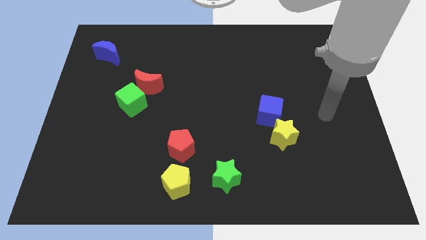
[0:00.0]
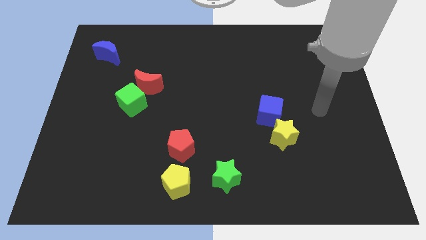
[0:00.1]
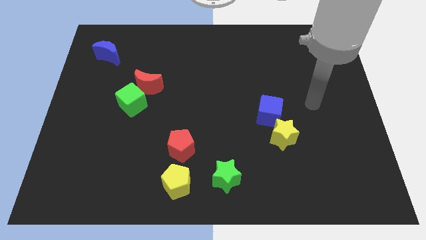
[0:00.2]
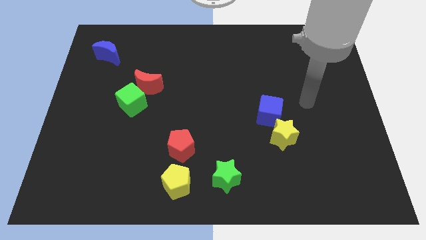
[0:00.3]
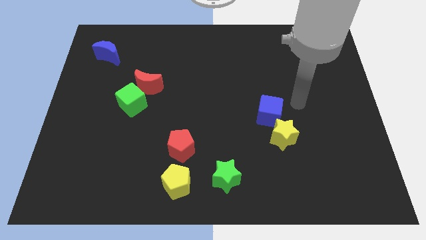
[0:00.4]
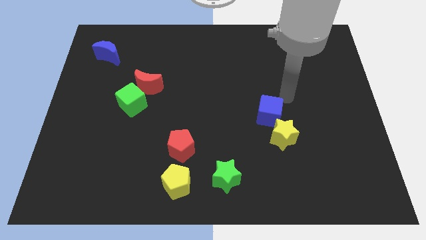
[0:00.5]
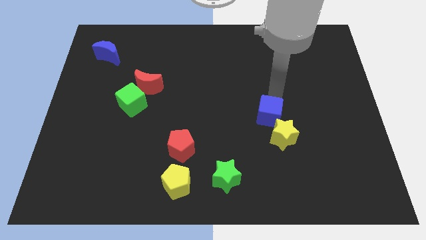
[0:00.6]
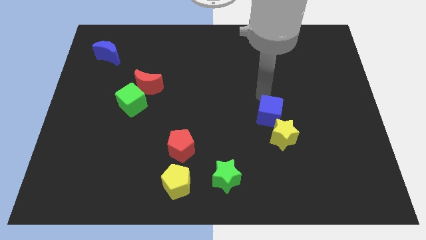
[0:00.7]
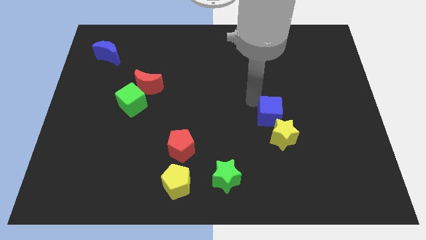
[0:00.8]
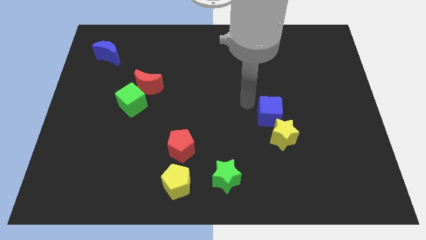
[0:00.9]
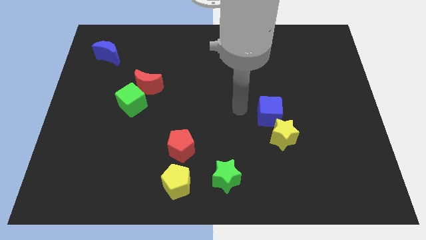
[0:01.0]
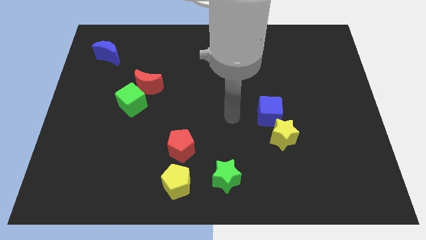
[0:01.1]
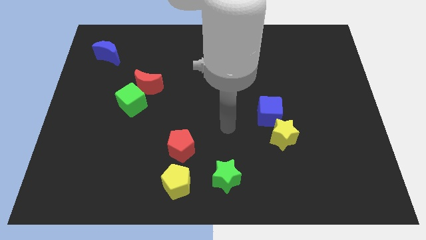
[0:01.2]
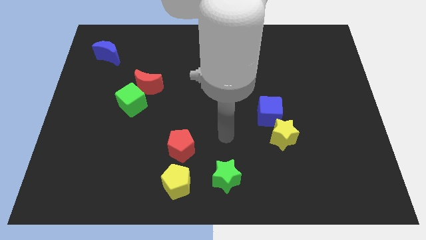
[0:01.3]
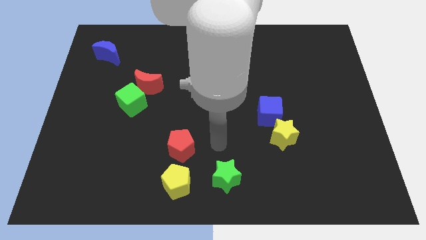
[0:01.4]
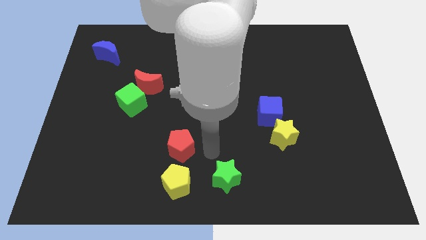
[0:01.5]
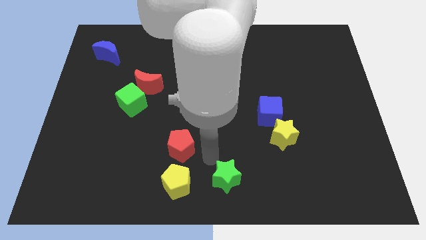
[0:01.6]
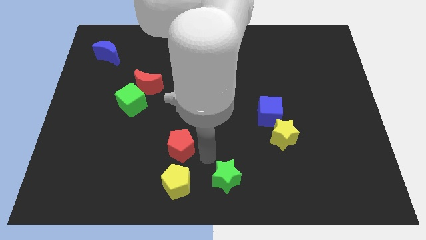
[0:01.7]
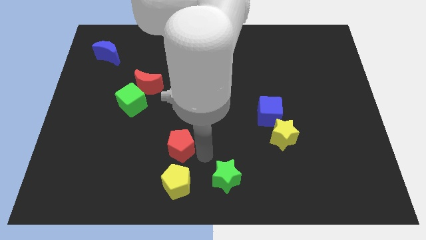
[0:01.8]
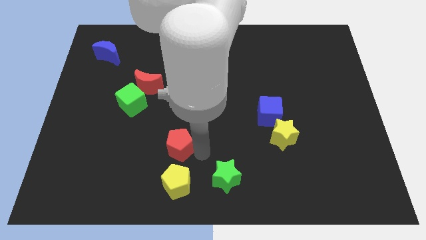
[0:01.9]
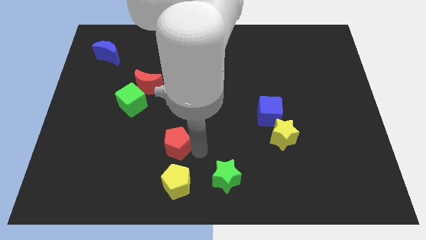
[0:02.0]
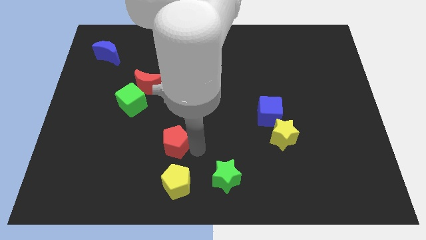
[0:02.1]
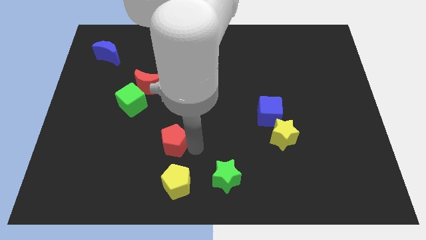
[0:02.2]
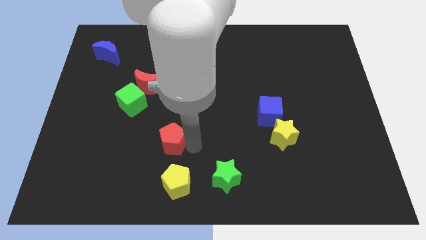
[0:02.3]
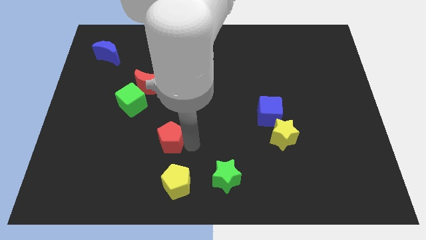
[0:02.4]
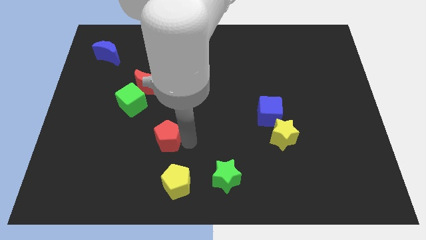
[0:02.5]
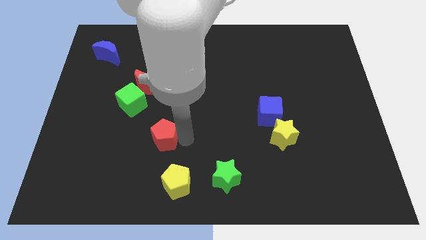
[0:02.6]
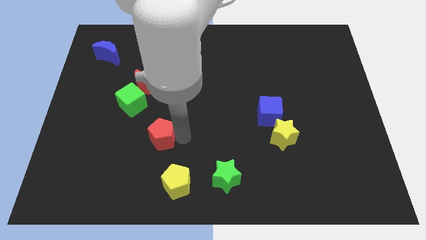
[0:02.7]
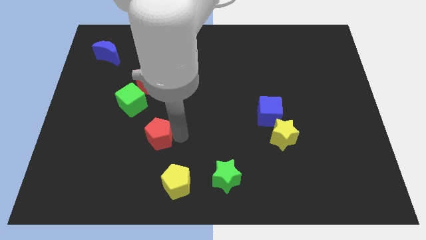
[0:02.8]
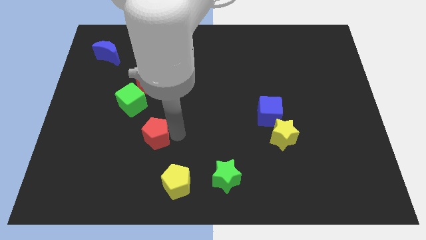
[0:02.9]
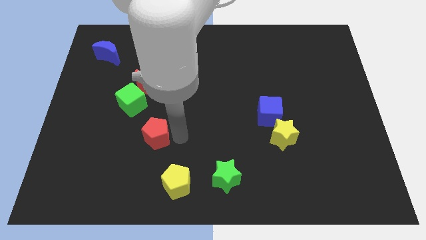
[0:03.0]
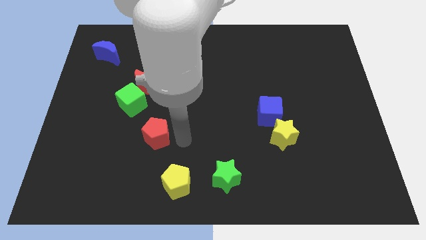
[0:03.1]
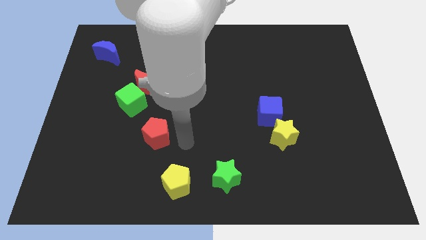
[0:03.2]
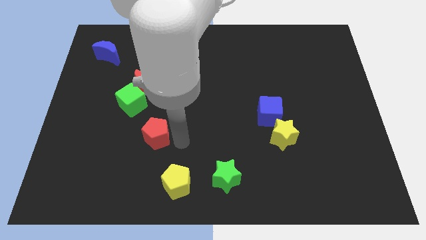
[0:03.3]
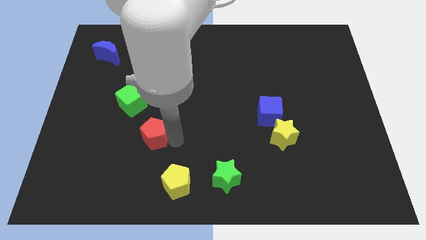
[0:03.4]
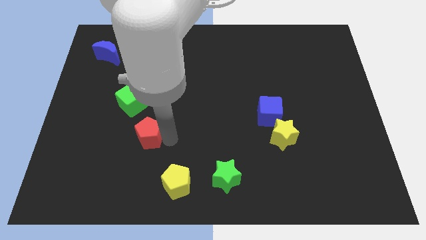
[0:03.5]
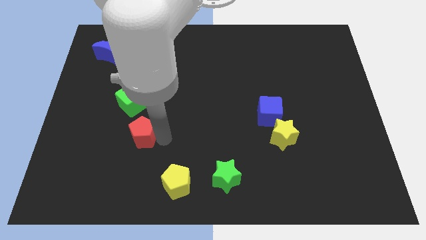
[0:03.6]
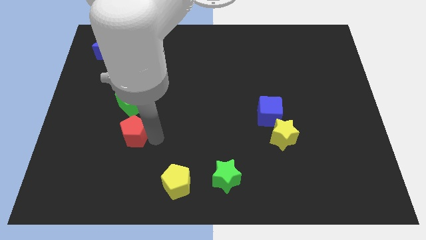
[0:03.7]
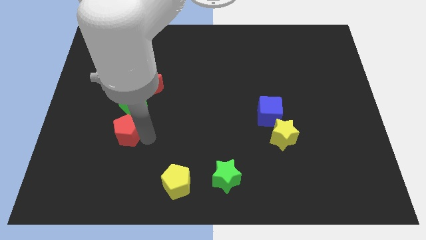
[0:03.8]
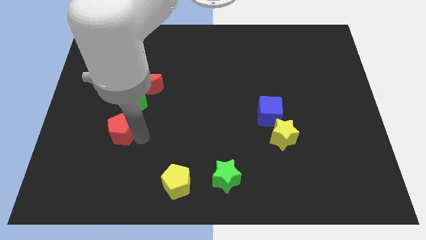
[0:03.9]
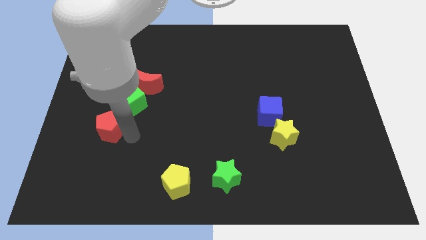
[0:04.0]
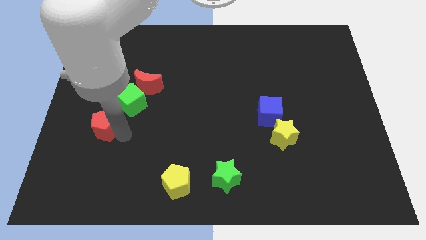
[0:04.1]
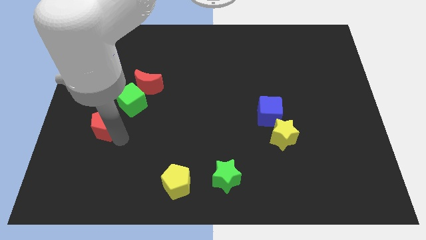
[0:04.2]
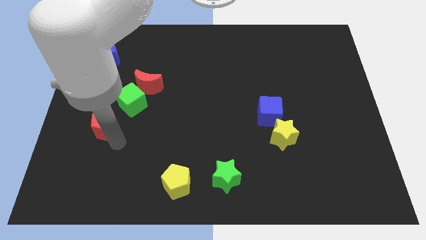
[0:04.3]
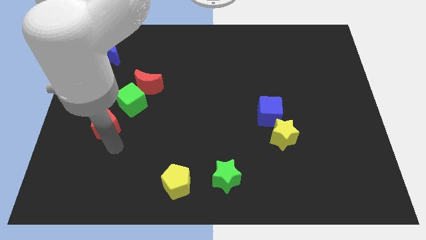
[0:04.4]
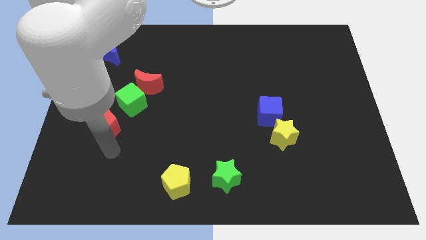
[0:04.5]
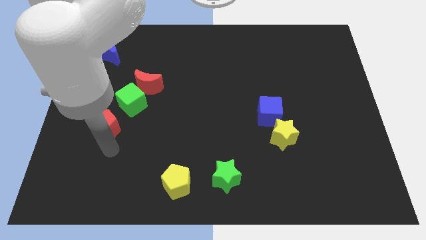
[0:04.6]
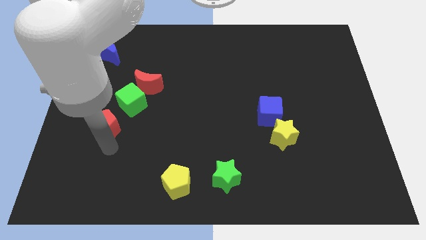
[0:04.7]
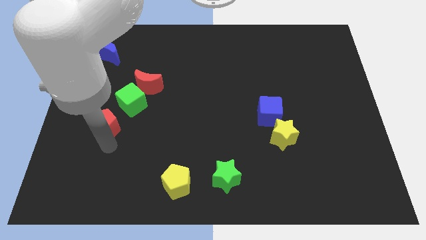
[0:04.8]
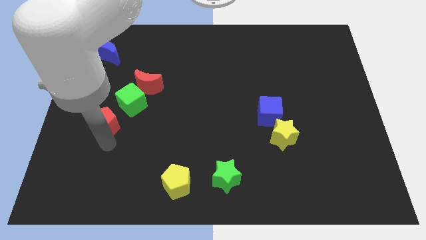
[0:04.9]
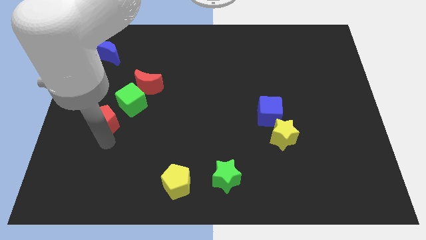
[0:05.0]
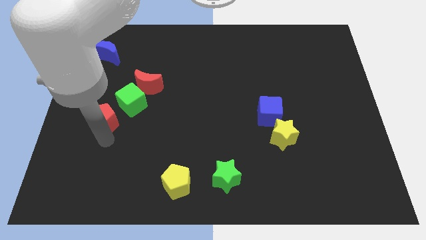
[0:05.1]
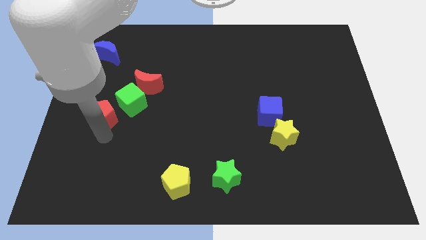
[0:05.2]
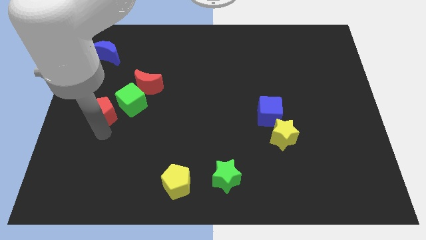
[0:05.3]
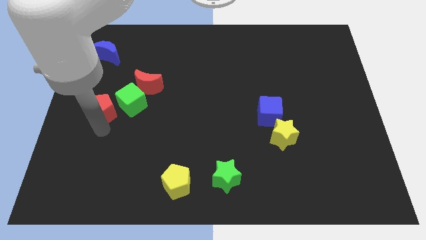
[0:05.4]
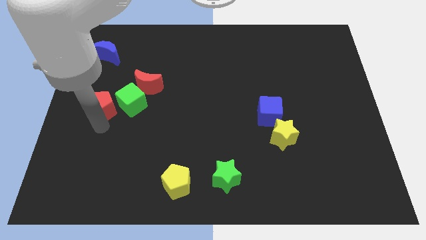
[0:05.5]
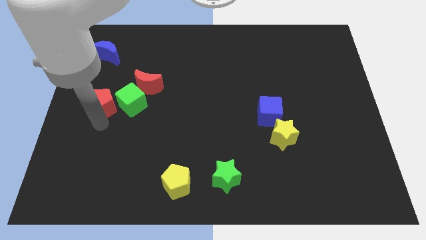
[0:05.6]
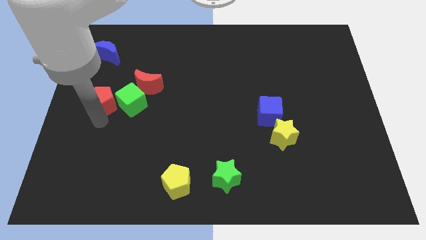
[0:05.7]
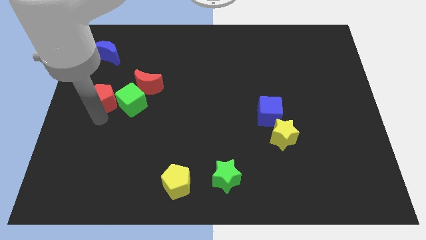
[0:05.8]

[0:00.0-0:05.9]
move the red pentagon to the left side of the red moon
